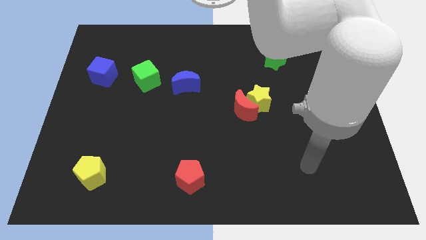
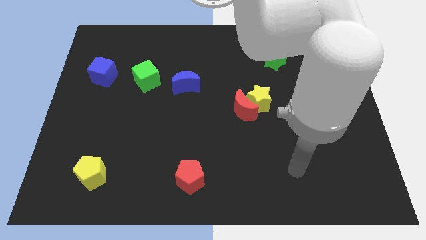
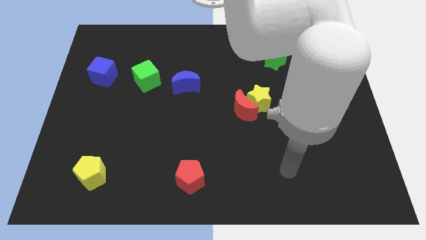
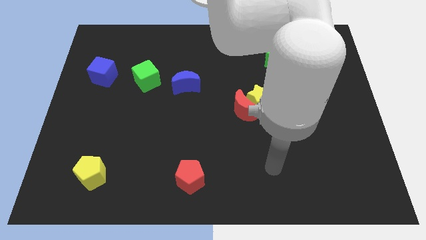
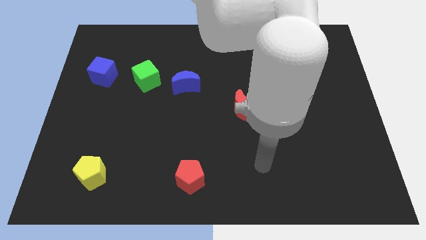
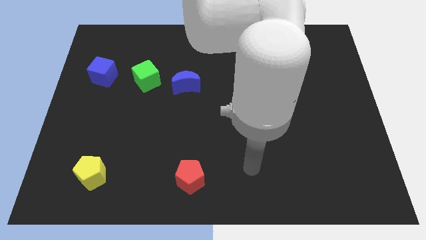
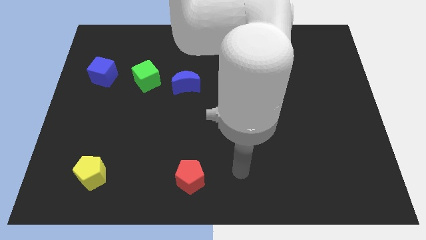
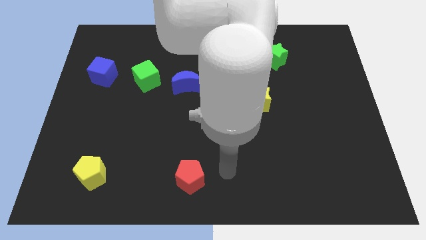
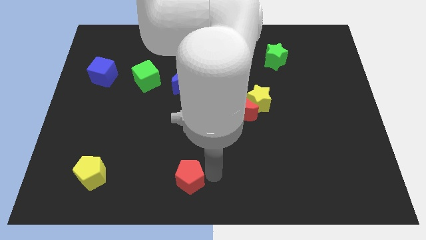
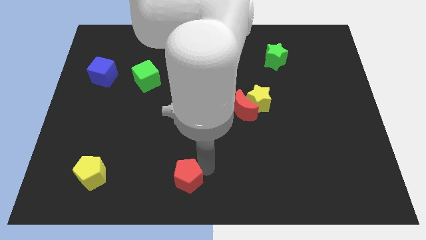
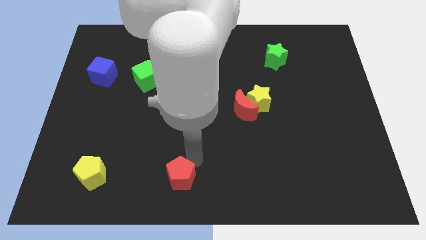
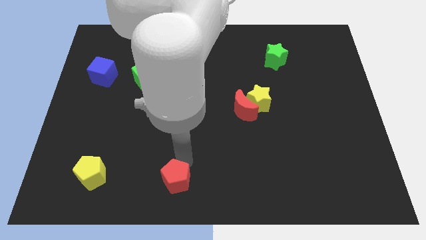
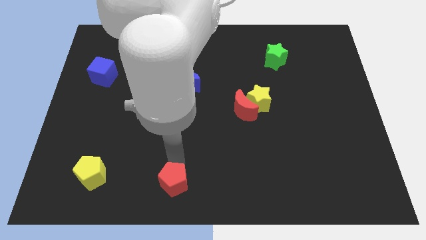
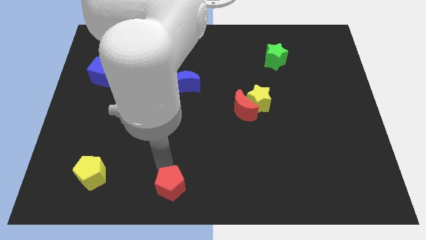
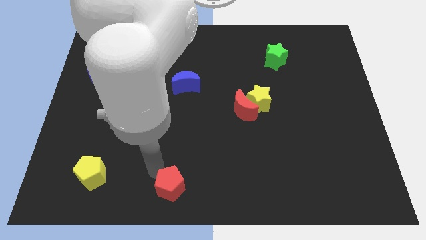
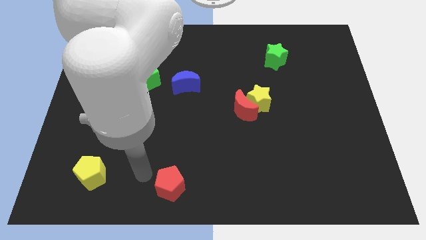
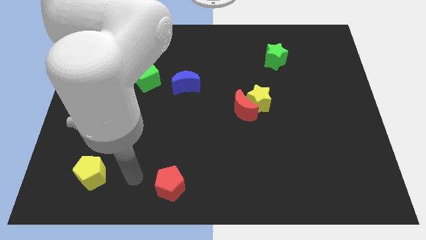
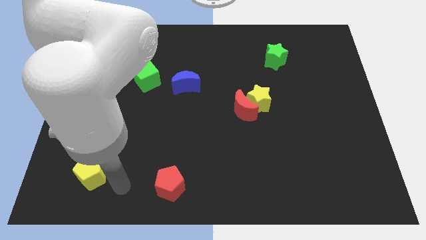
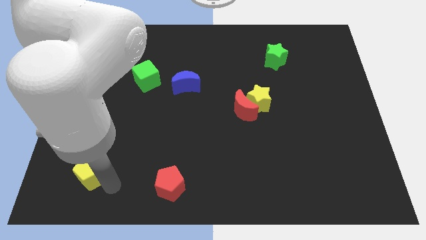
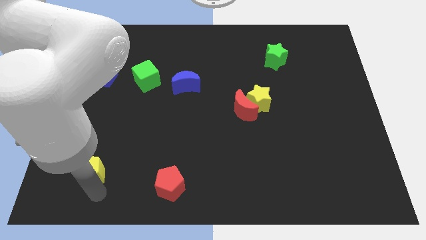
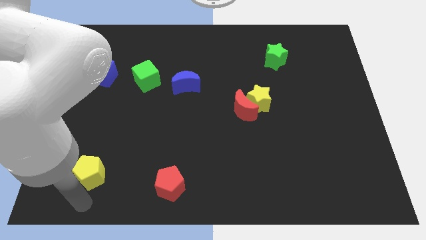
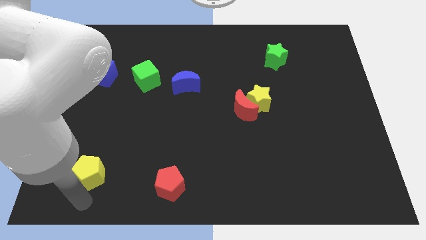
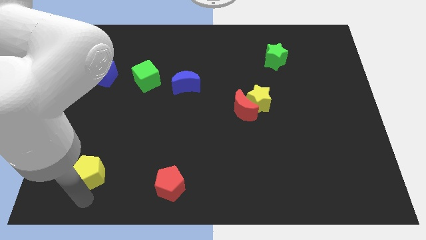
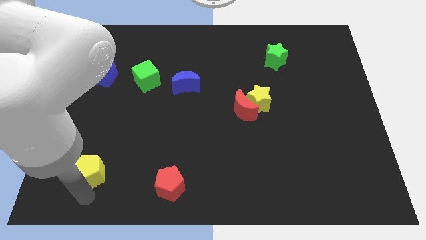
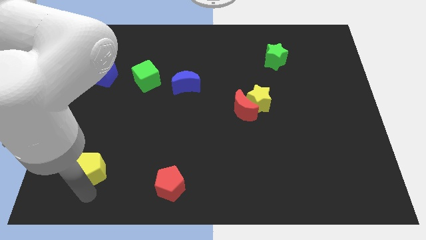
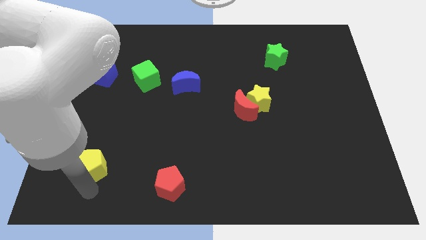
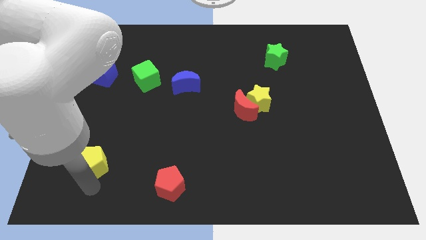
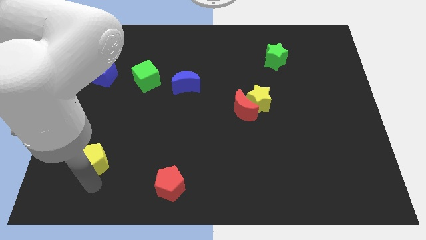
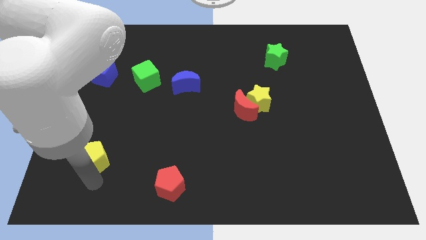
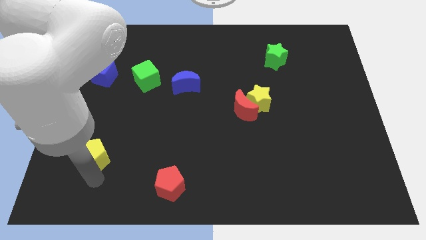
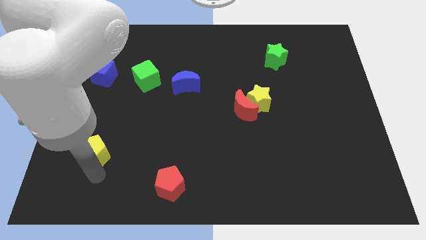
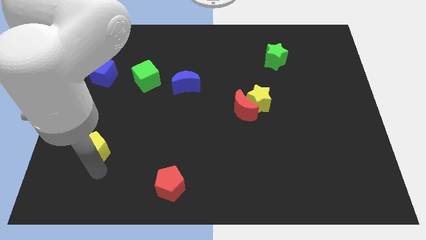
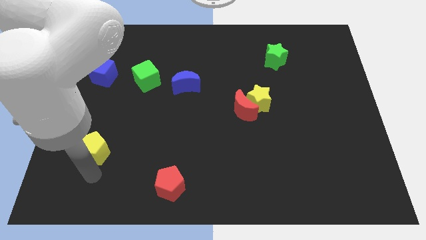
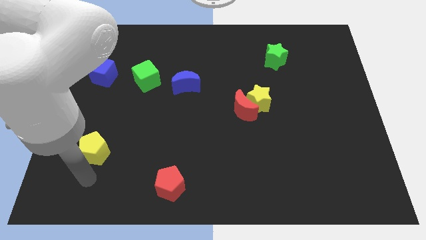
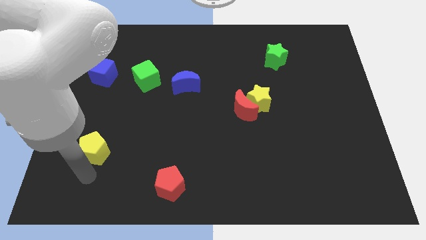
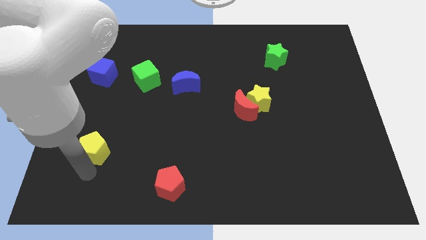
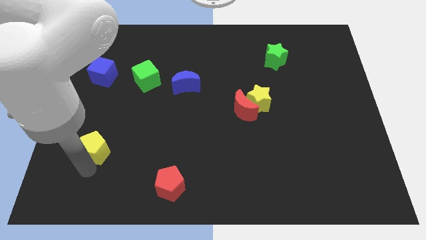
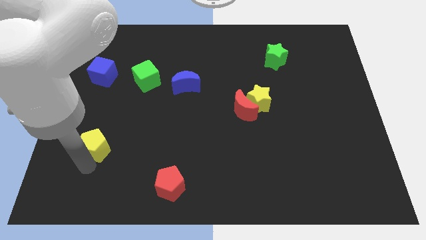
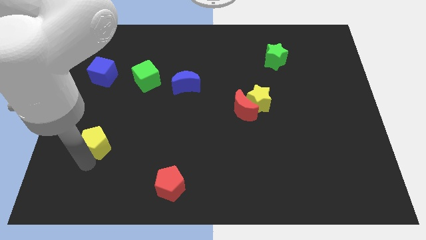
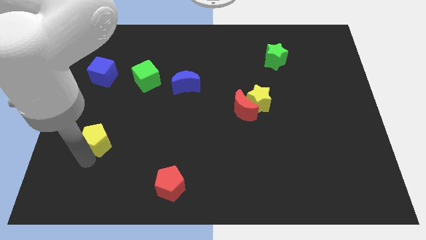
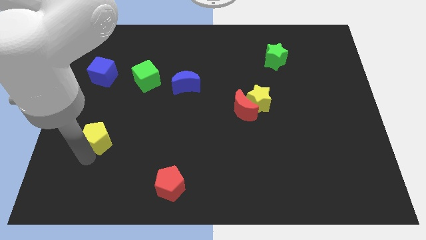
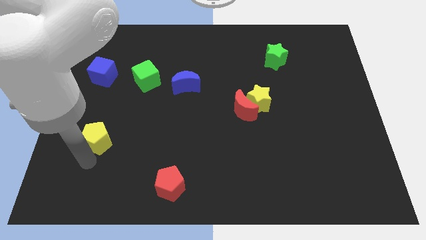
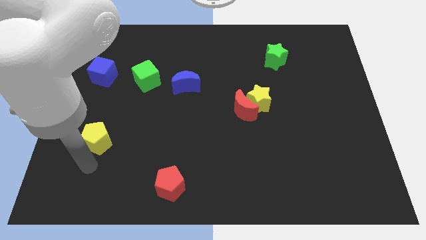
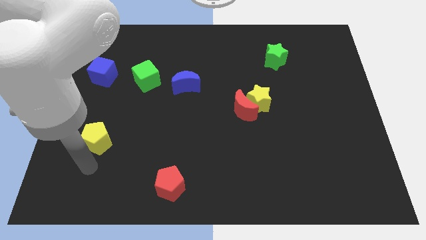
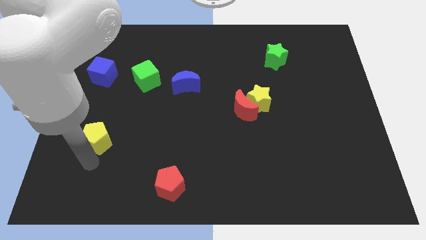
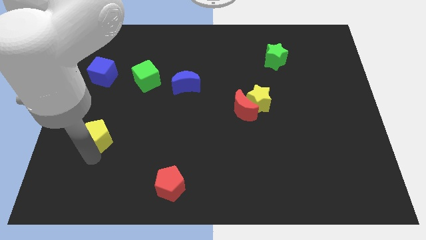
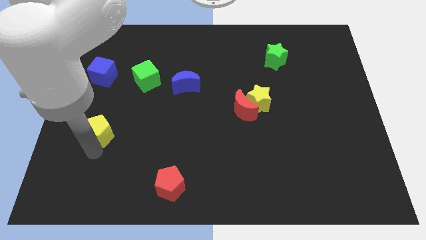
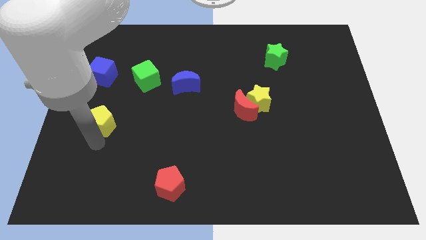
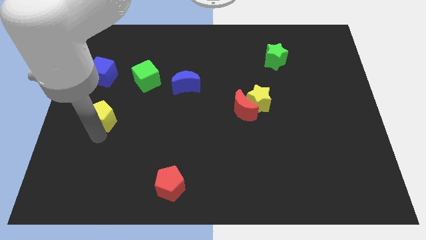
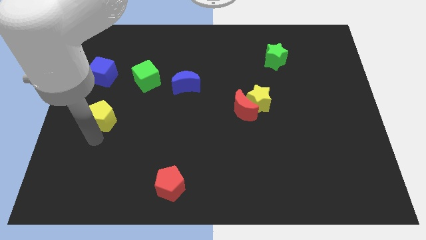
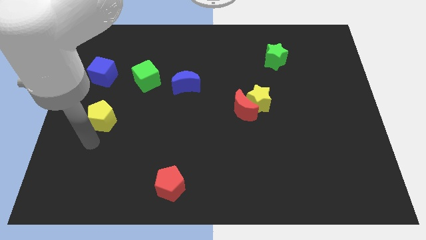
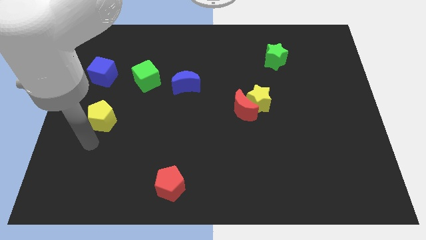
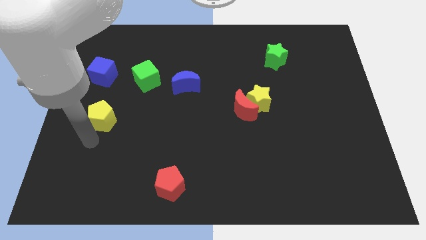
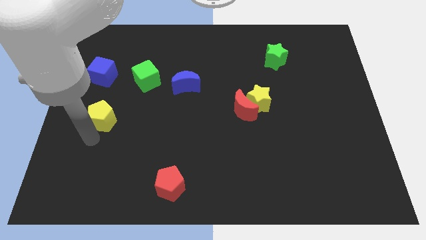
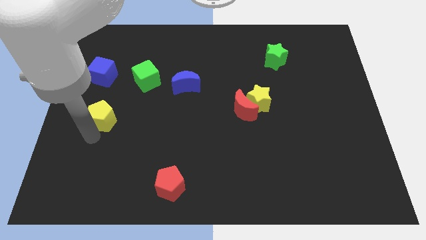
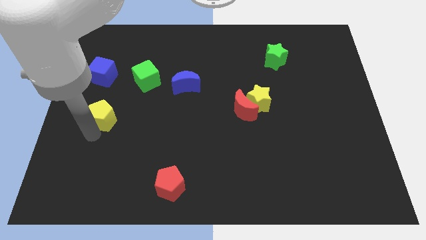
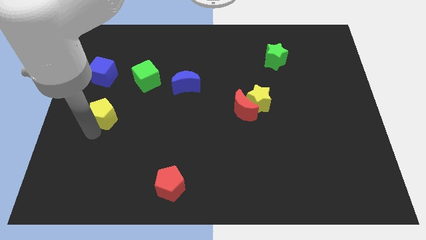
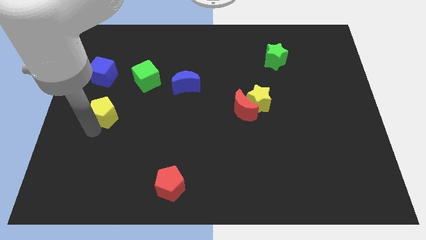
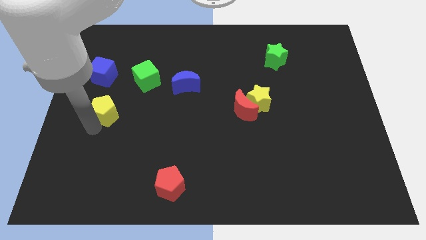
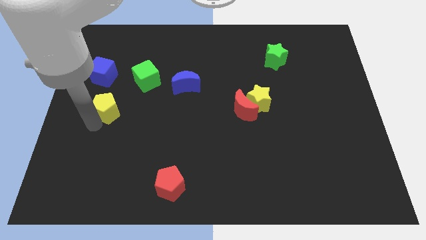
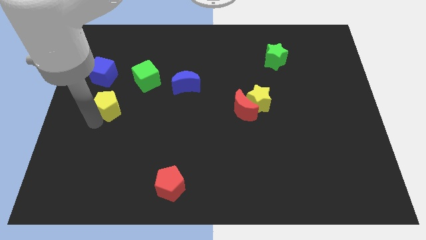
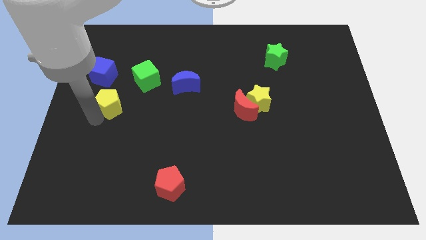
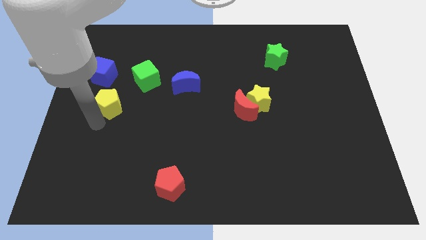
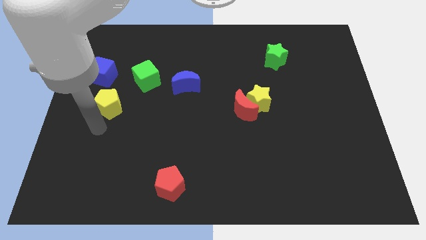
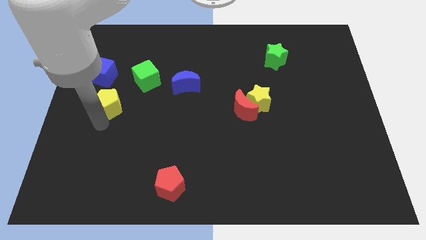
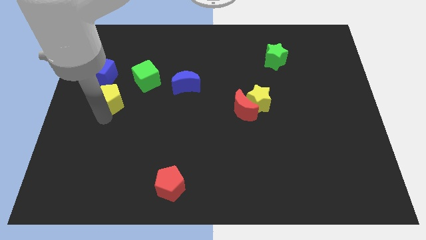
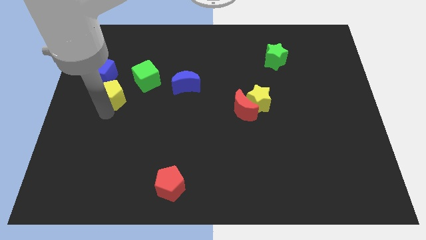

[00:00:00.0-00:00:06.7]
push the yellow pentagon upwards

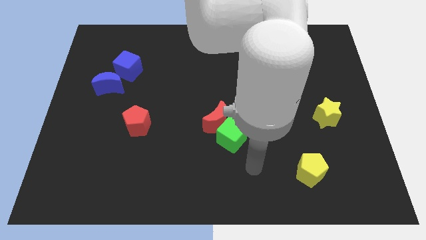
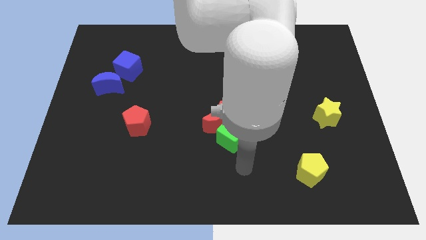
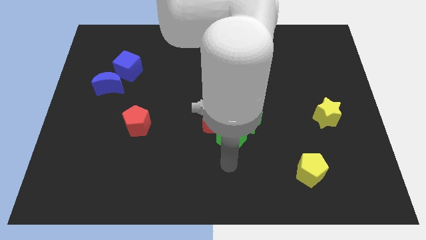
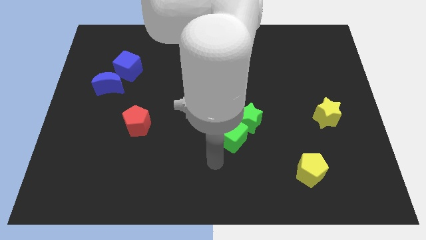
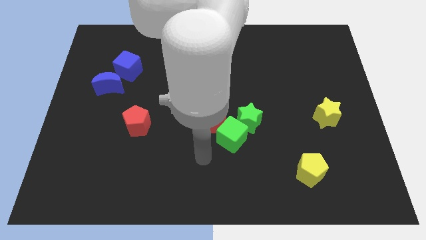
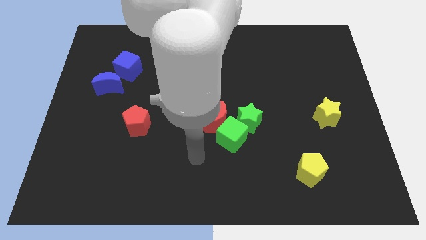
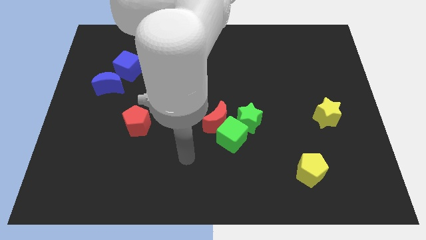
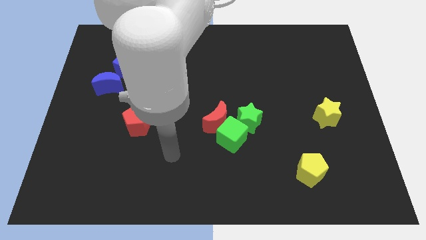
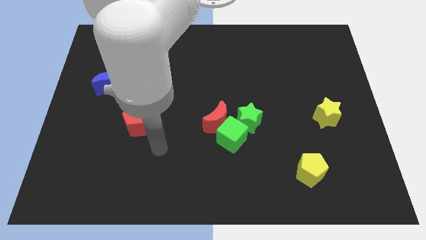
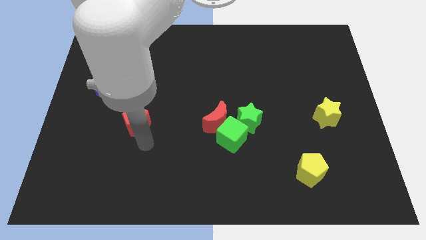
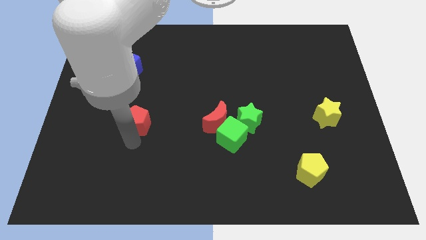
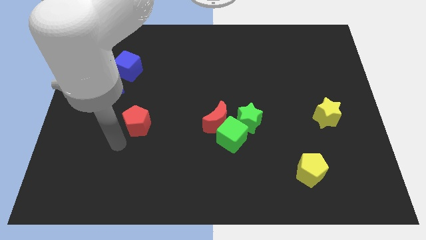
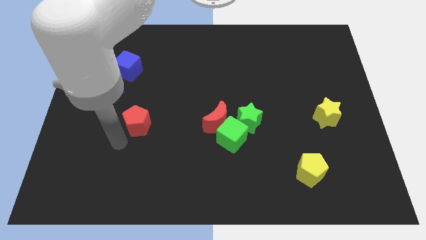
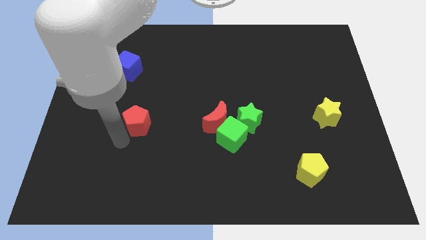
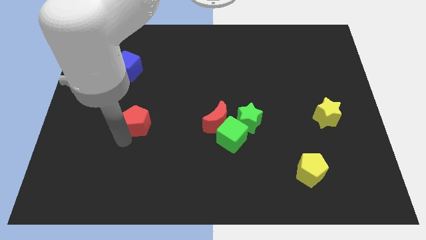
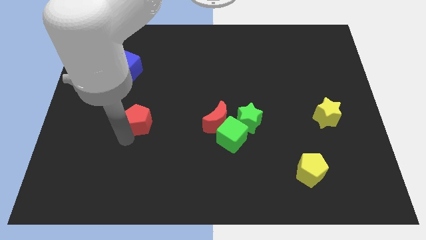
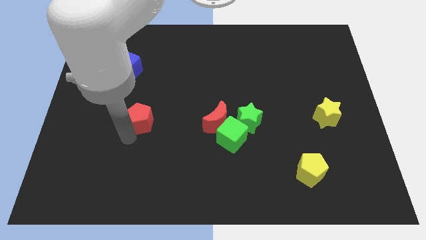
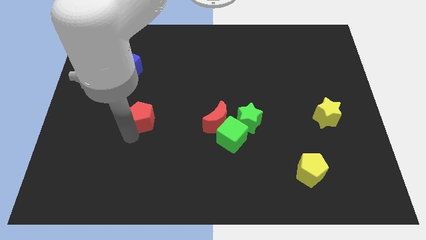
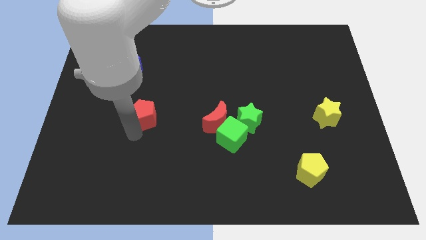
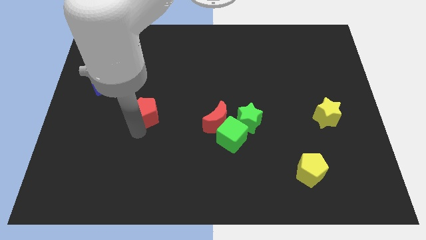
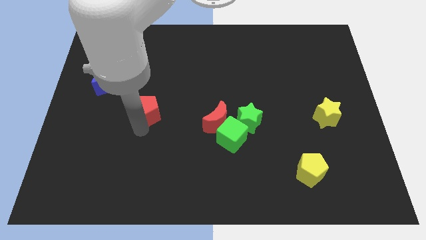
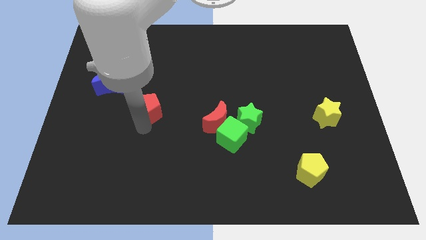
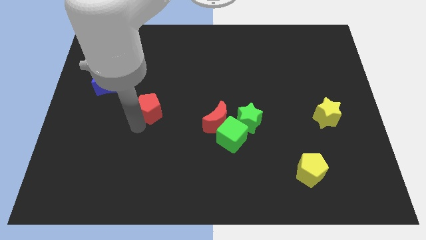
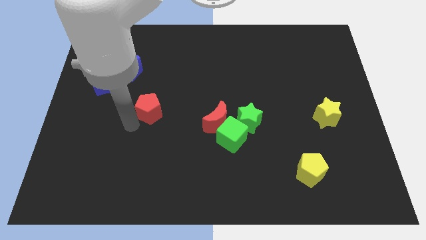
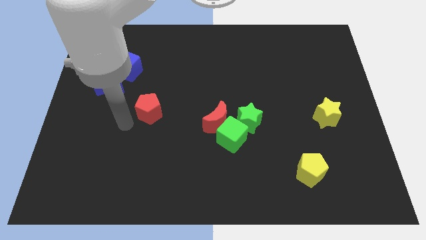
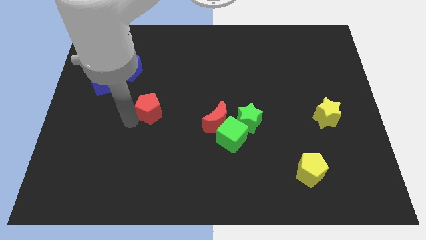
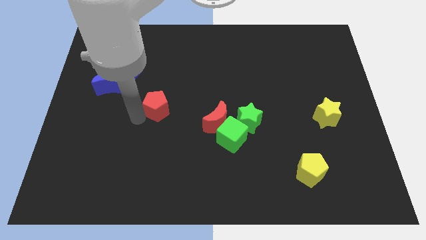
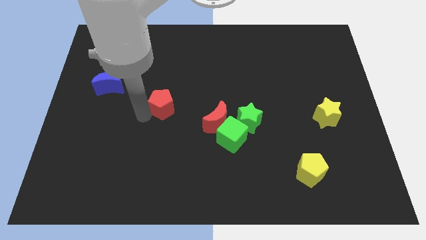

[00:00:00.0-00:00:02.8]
slide the red pentagon slightly diagonally upwards and to the right
